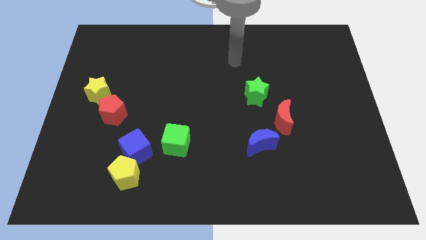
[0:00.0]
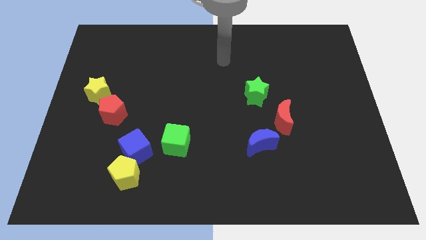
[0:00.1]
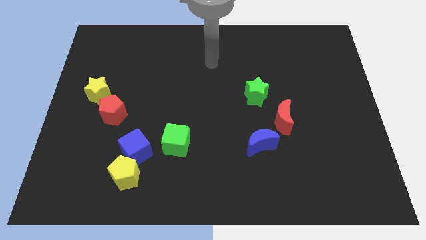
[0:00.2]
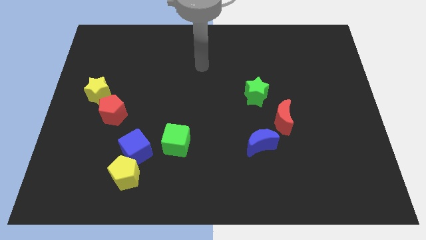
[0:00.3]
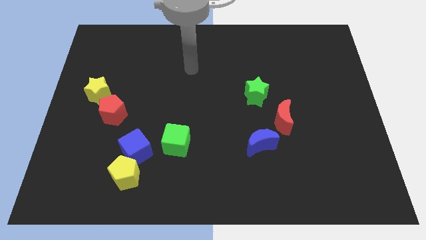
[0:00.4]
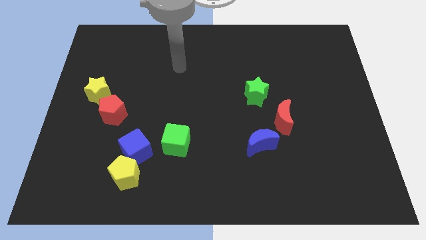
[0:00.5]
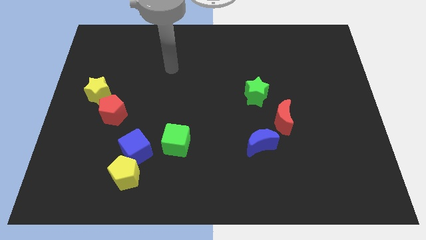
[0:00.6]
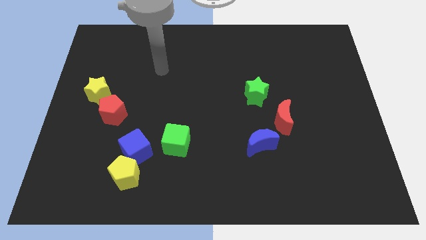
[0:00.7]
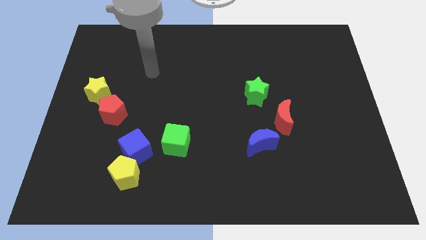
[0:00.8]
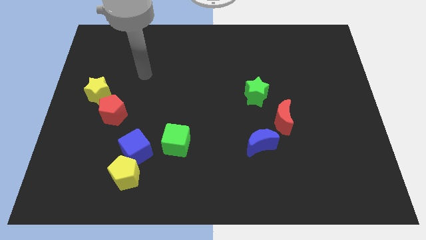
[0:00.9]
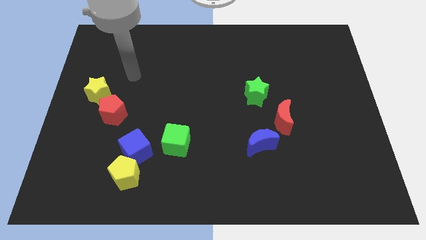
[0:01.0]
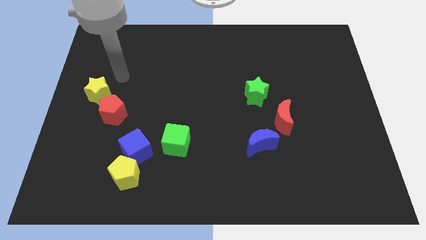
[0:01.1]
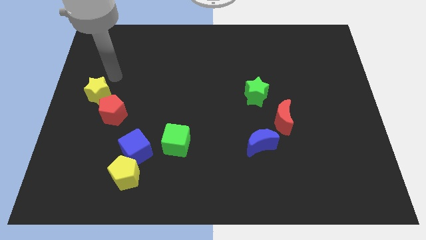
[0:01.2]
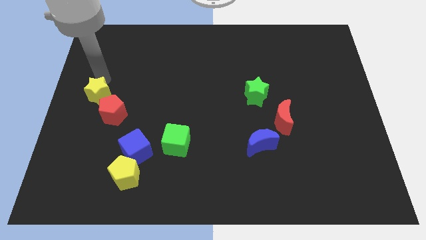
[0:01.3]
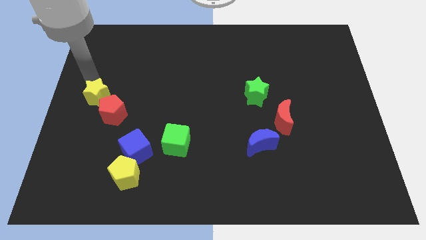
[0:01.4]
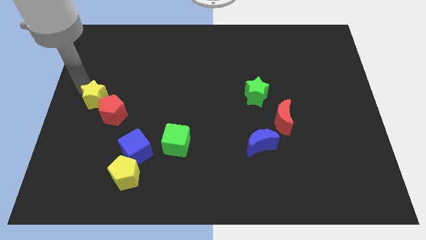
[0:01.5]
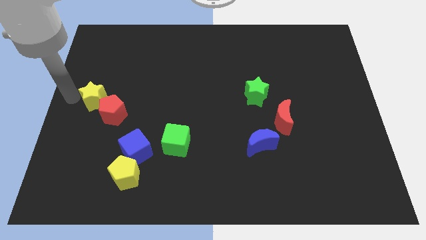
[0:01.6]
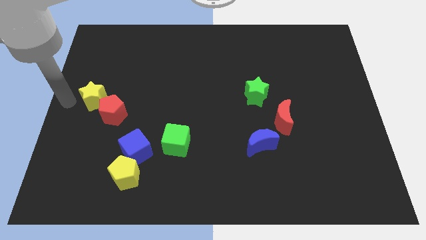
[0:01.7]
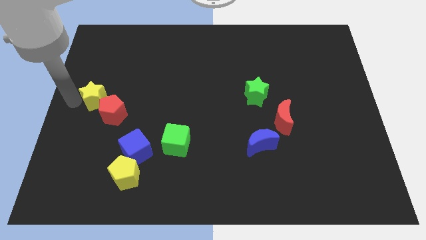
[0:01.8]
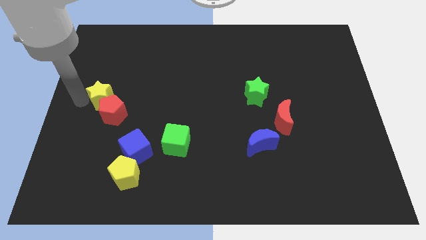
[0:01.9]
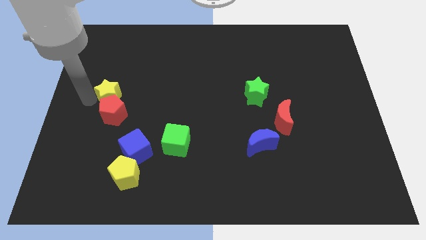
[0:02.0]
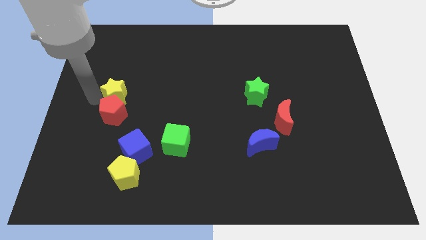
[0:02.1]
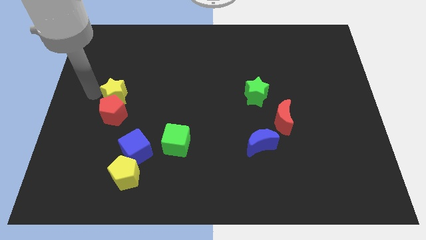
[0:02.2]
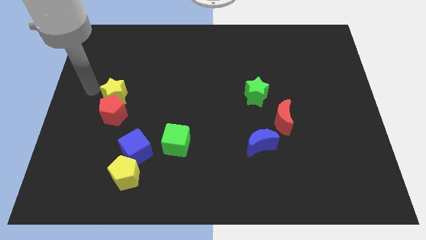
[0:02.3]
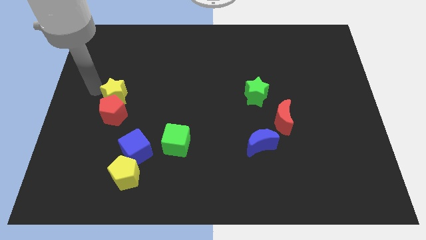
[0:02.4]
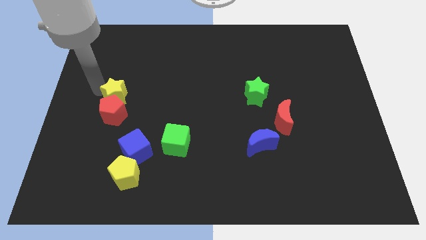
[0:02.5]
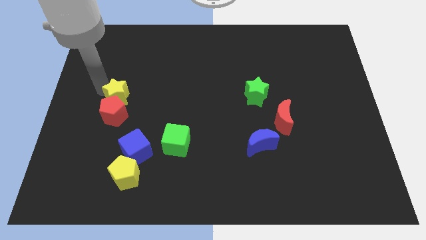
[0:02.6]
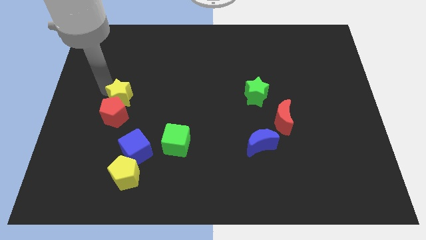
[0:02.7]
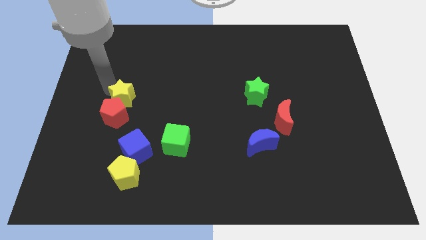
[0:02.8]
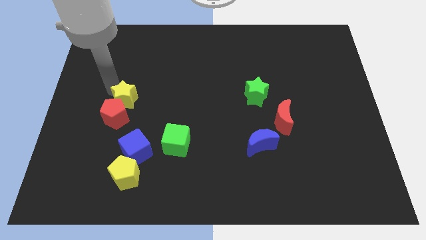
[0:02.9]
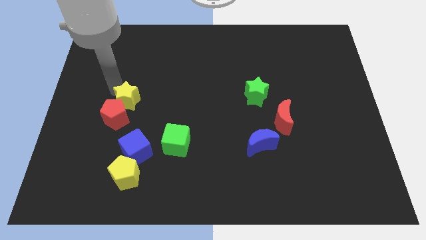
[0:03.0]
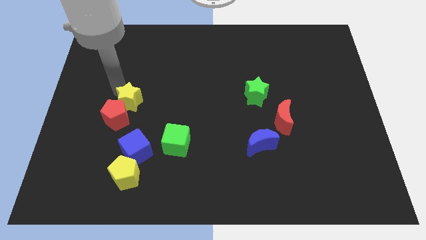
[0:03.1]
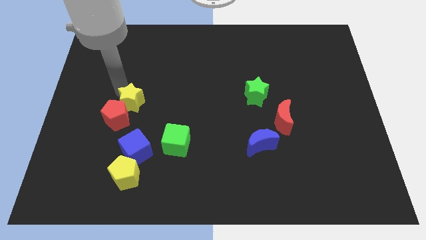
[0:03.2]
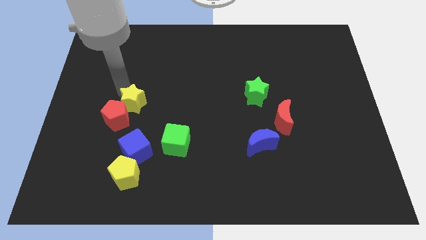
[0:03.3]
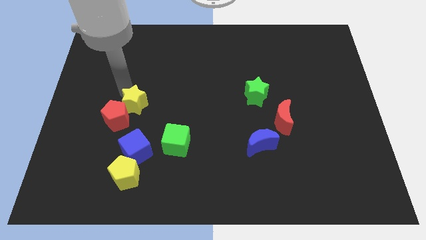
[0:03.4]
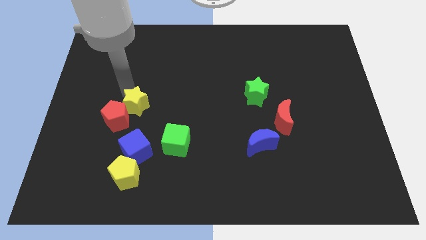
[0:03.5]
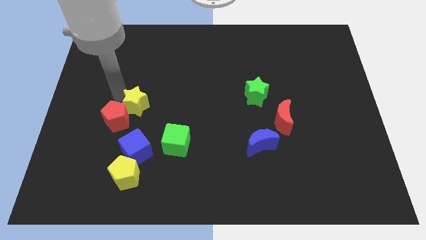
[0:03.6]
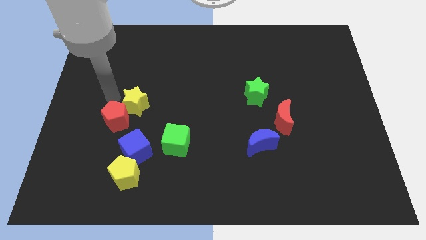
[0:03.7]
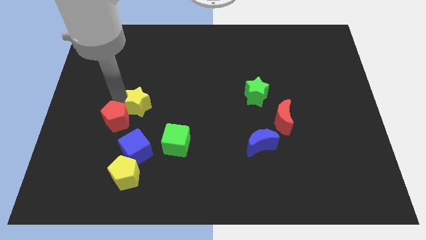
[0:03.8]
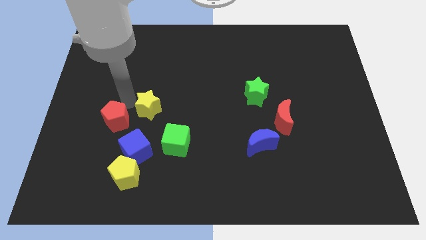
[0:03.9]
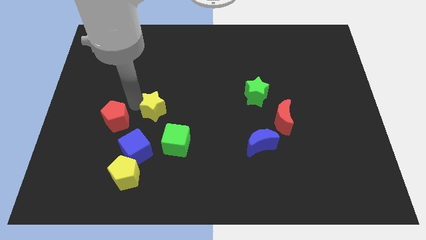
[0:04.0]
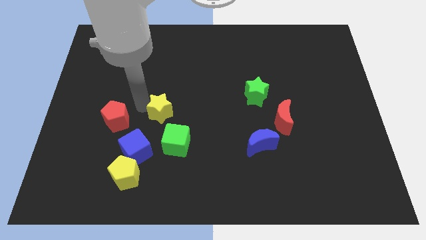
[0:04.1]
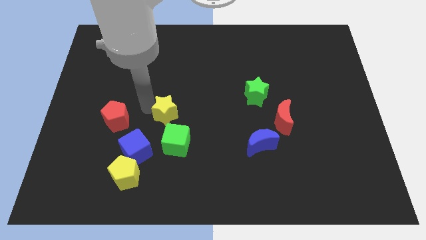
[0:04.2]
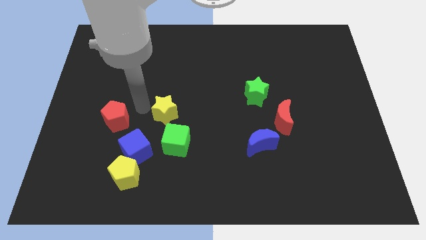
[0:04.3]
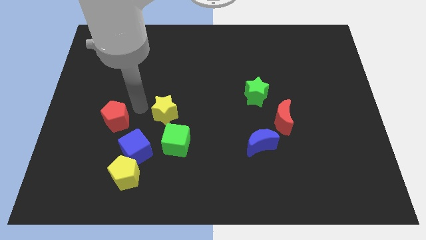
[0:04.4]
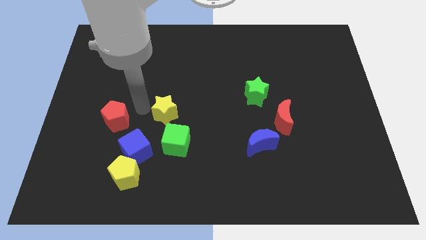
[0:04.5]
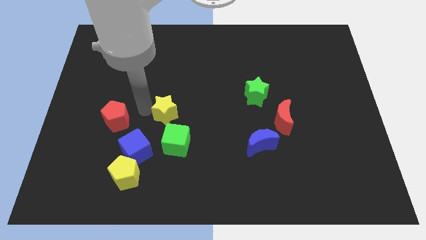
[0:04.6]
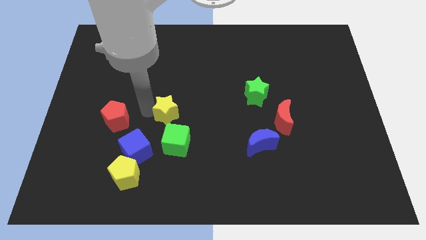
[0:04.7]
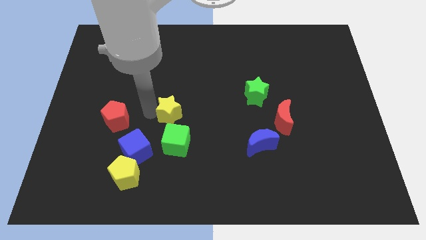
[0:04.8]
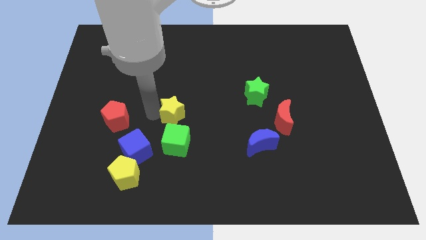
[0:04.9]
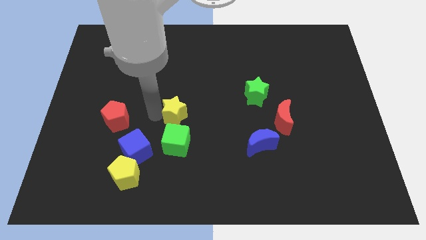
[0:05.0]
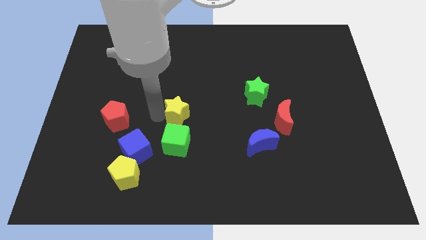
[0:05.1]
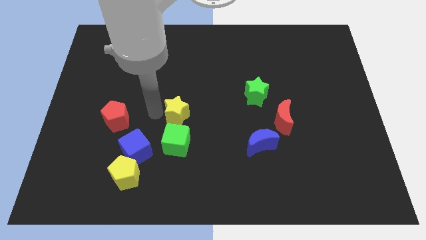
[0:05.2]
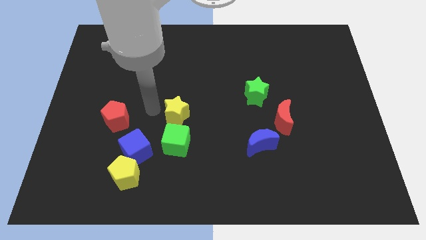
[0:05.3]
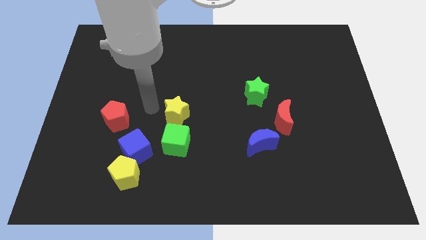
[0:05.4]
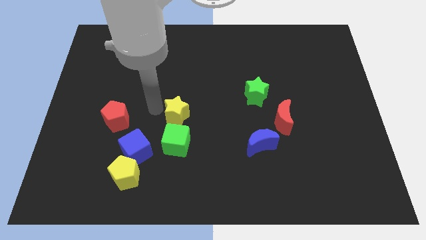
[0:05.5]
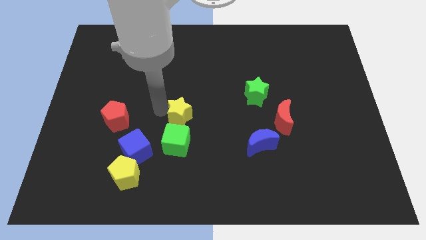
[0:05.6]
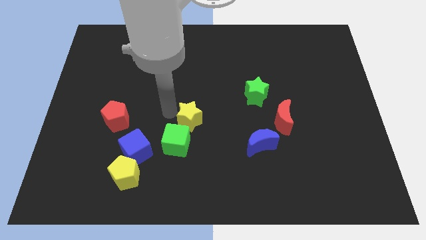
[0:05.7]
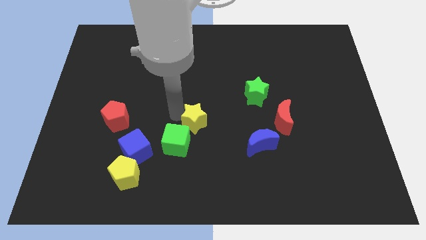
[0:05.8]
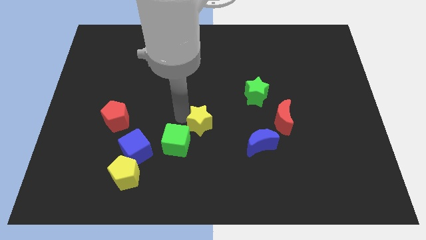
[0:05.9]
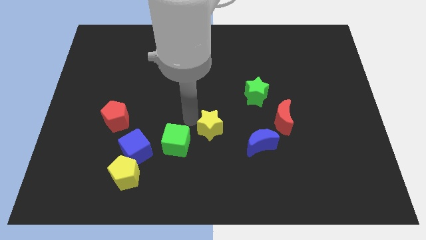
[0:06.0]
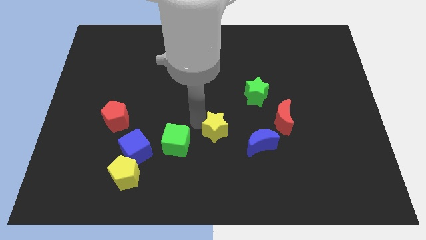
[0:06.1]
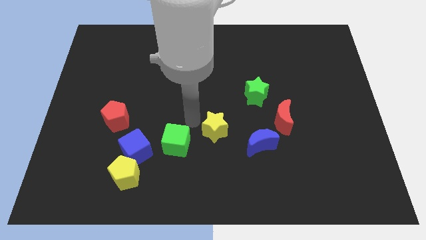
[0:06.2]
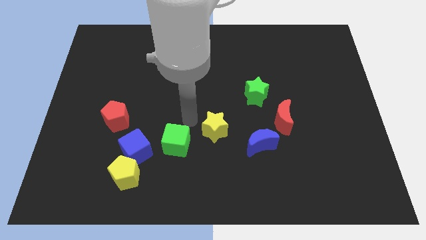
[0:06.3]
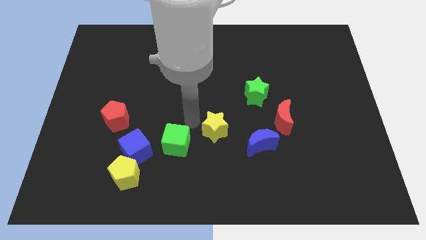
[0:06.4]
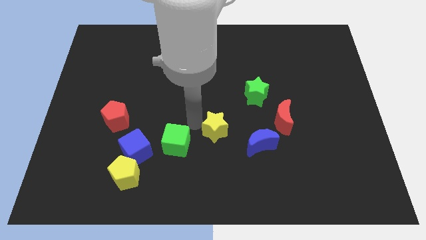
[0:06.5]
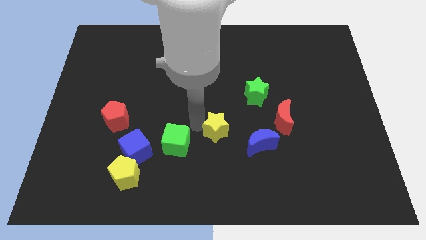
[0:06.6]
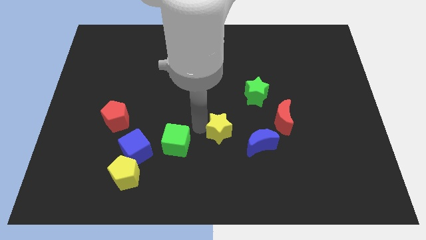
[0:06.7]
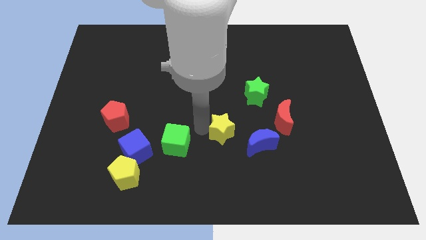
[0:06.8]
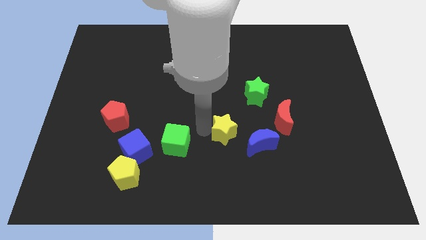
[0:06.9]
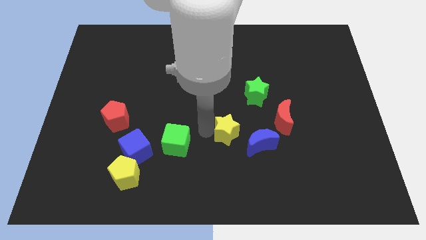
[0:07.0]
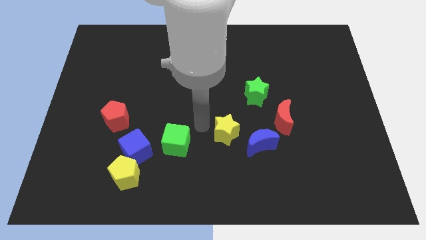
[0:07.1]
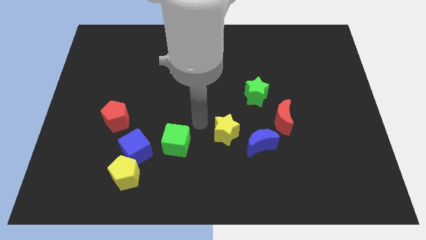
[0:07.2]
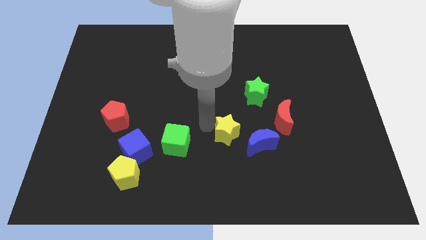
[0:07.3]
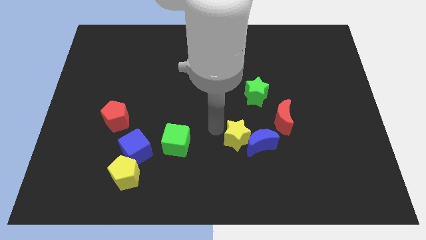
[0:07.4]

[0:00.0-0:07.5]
slide the yellow star close to the blue moon
